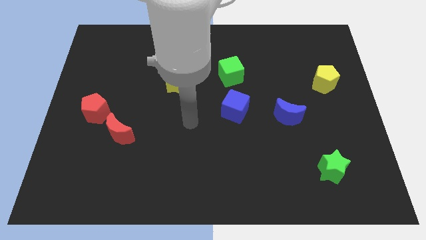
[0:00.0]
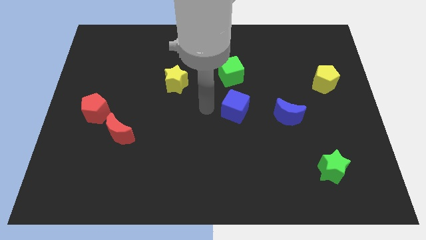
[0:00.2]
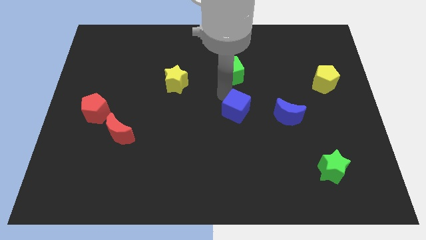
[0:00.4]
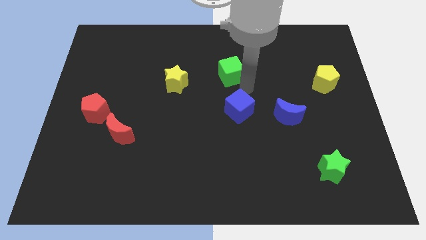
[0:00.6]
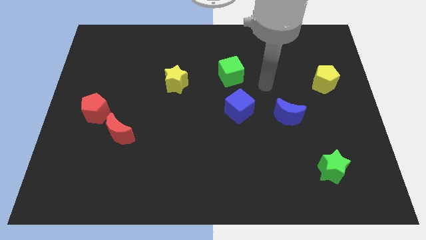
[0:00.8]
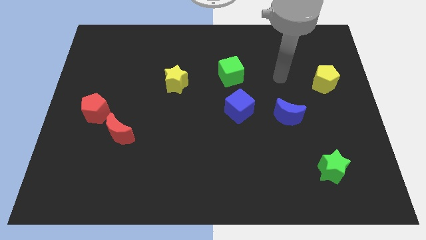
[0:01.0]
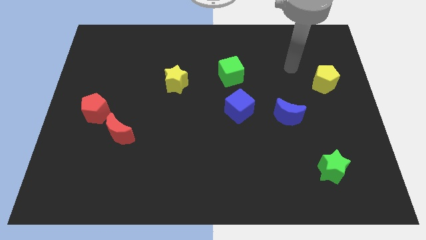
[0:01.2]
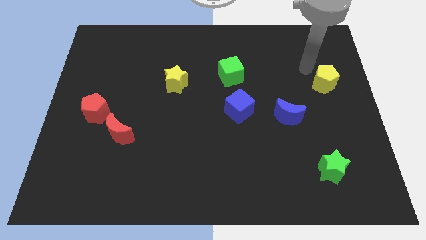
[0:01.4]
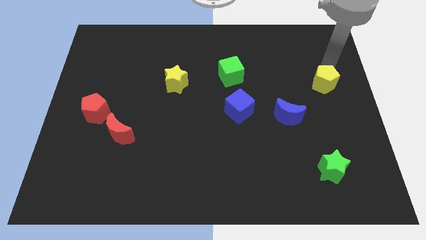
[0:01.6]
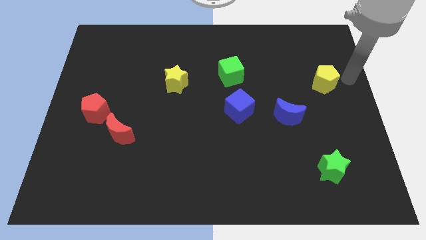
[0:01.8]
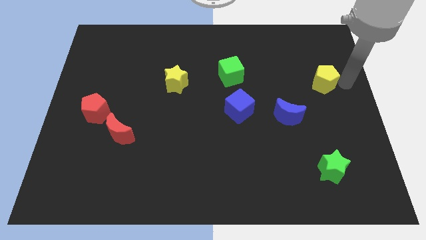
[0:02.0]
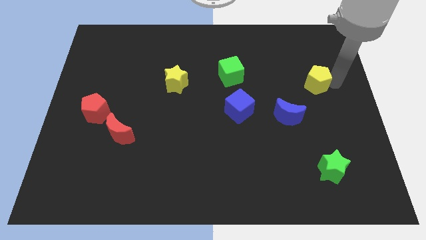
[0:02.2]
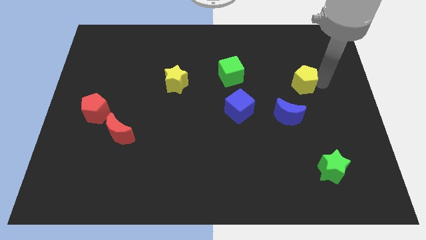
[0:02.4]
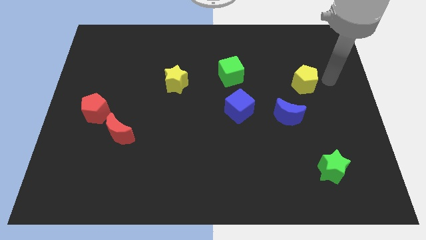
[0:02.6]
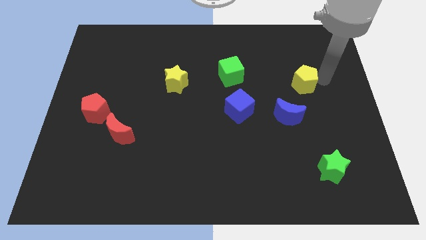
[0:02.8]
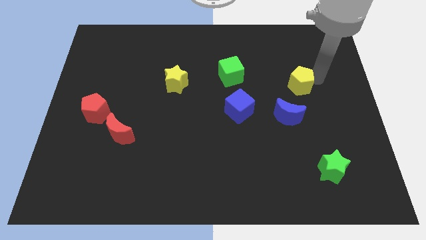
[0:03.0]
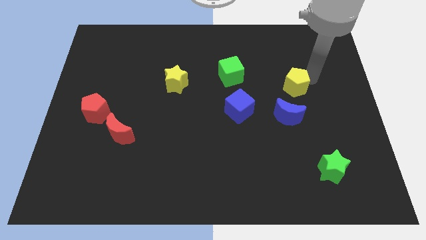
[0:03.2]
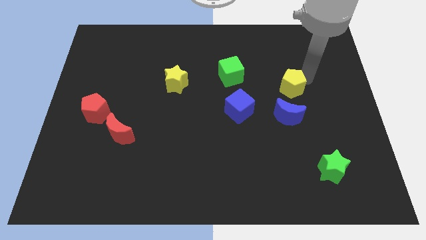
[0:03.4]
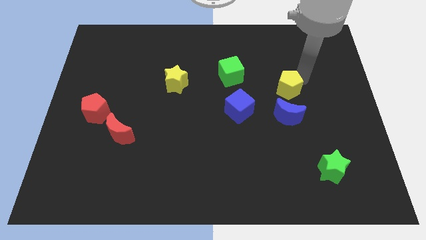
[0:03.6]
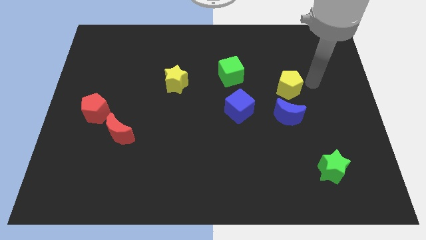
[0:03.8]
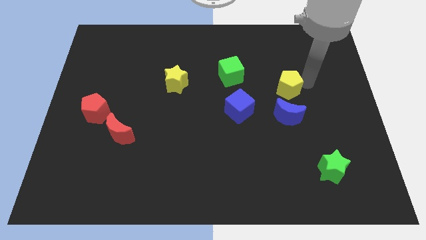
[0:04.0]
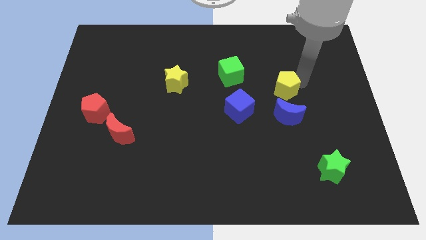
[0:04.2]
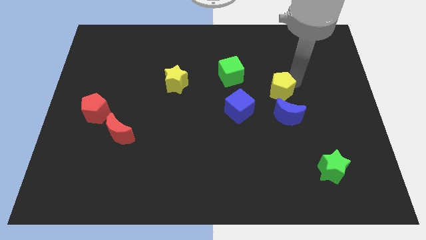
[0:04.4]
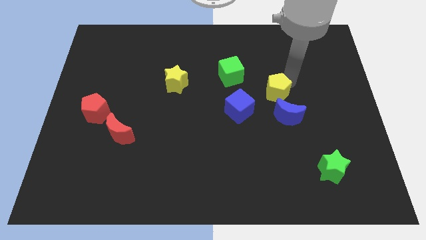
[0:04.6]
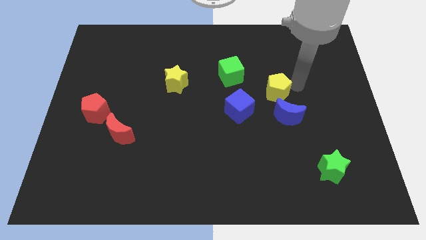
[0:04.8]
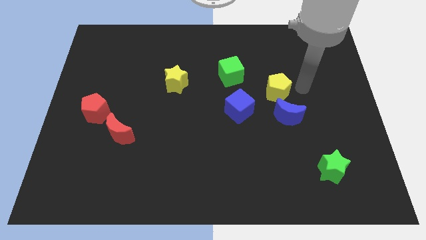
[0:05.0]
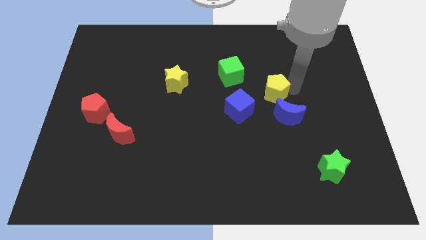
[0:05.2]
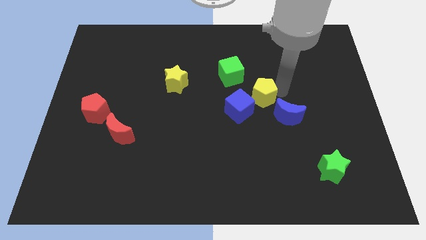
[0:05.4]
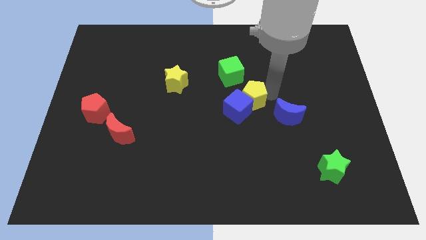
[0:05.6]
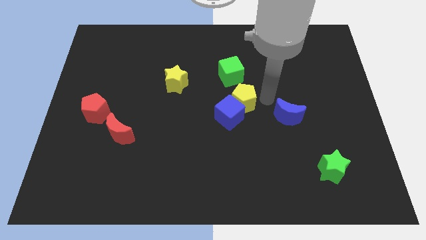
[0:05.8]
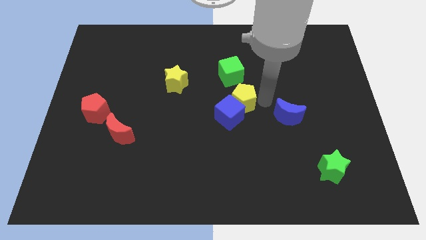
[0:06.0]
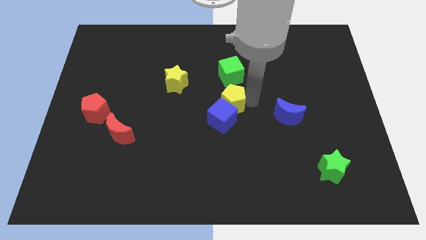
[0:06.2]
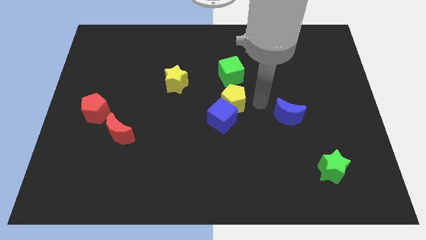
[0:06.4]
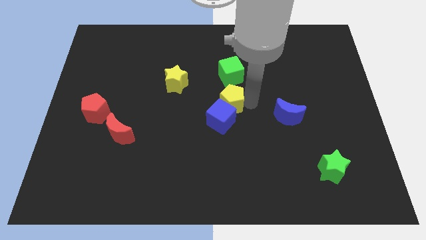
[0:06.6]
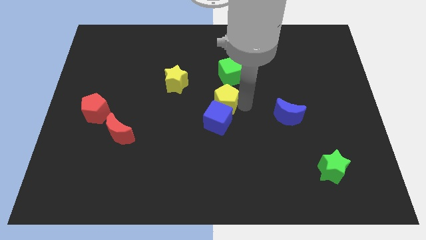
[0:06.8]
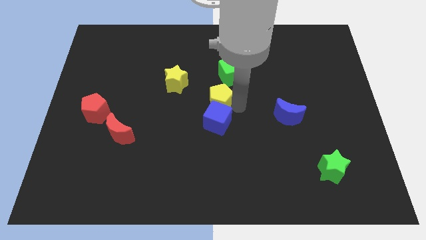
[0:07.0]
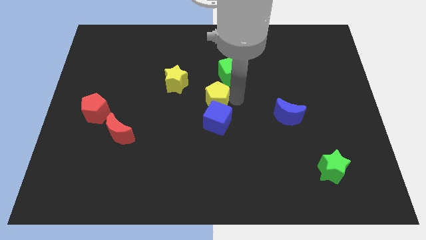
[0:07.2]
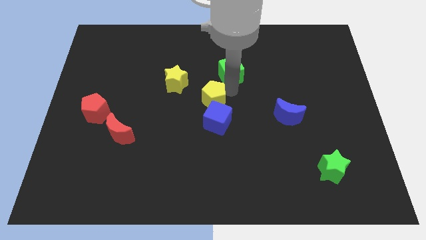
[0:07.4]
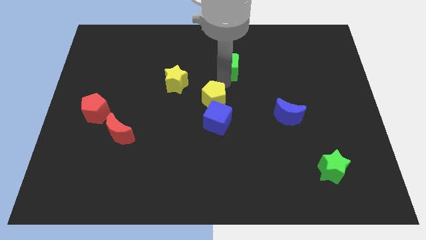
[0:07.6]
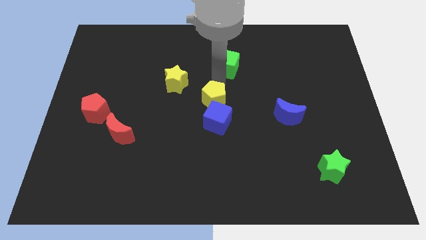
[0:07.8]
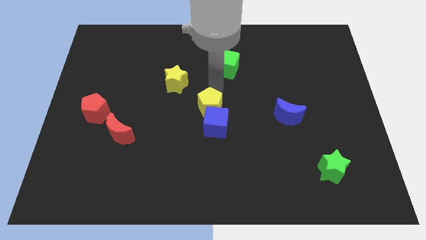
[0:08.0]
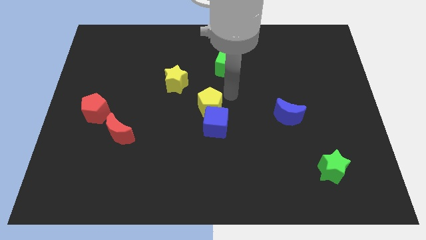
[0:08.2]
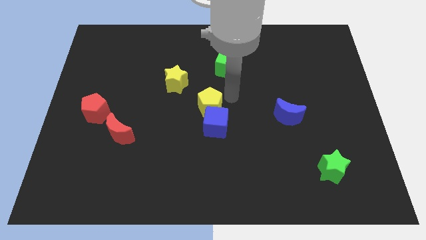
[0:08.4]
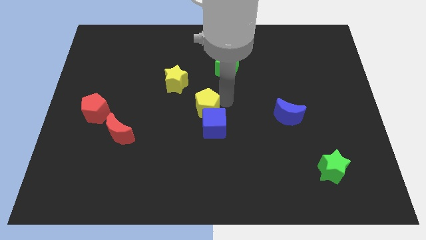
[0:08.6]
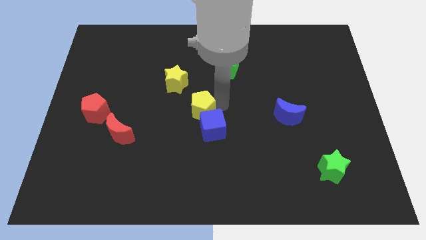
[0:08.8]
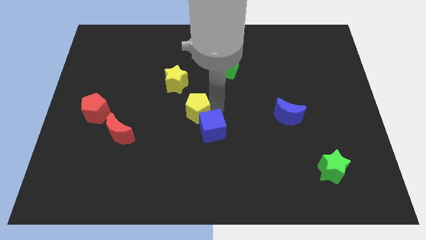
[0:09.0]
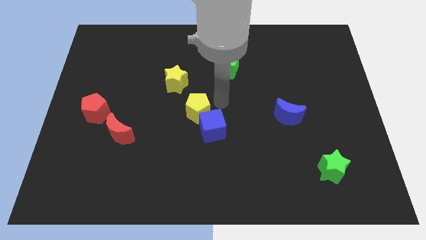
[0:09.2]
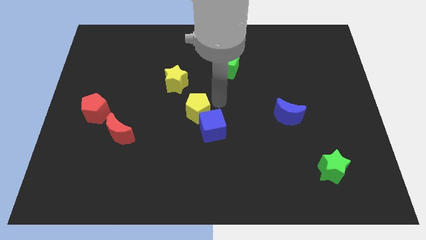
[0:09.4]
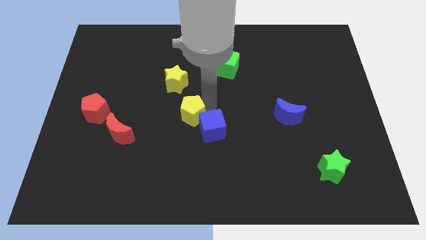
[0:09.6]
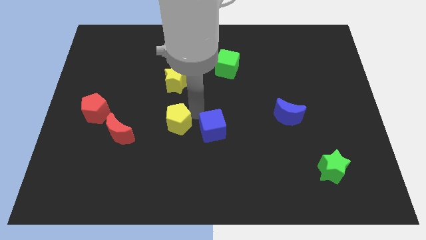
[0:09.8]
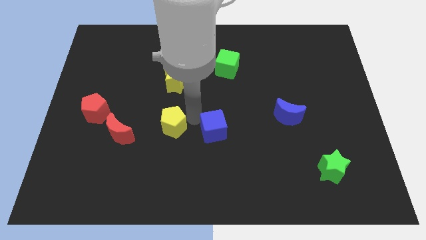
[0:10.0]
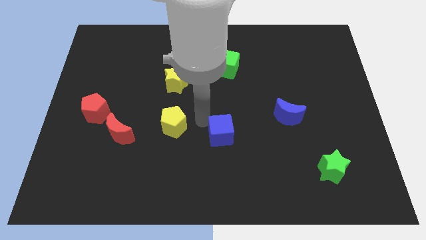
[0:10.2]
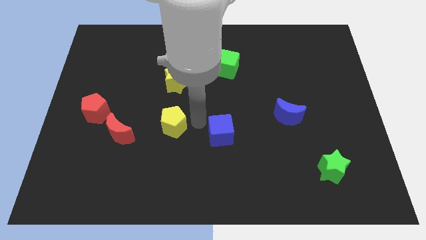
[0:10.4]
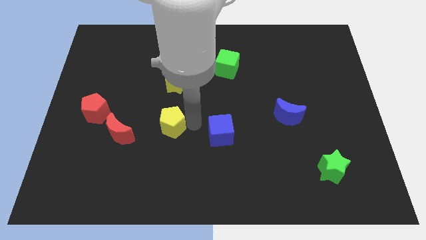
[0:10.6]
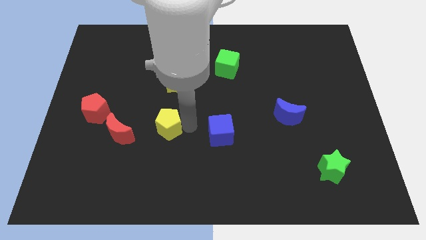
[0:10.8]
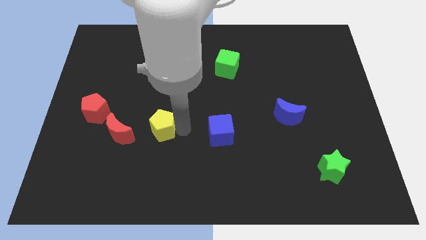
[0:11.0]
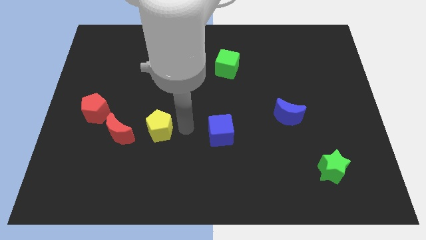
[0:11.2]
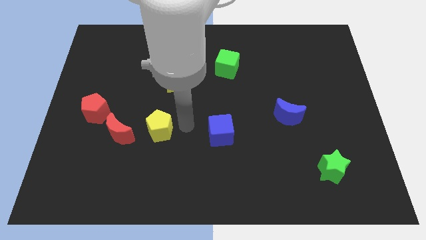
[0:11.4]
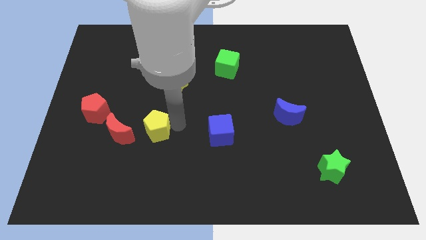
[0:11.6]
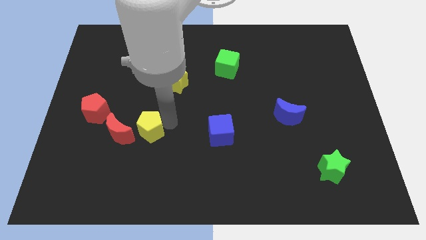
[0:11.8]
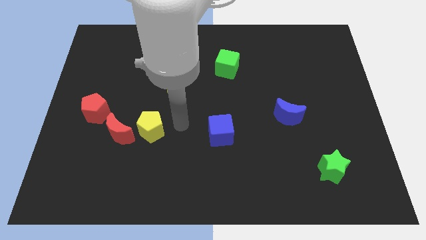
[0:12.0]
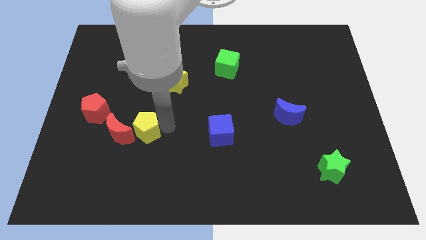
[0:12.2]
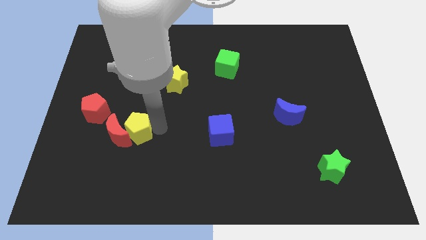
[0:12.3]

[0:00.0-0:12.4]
slide the yellow pentagon towards the red moon
